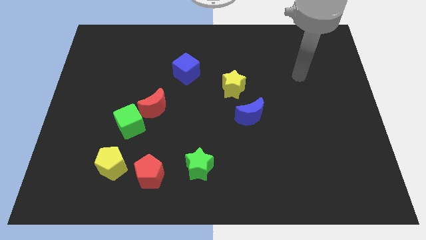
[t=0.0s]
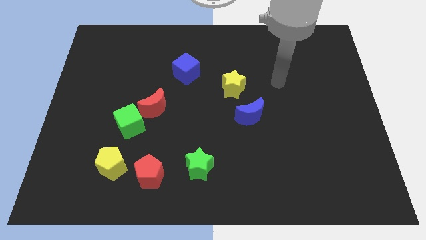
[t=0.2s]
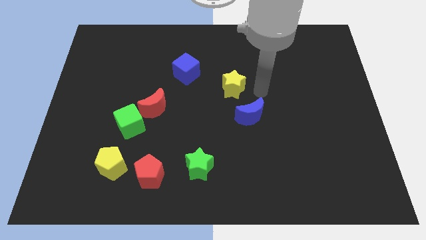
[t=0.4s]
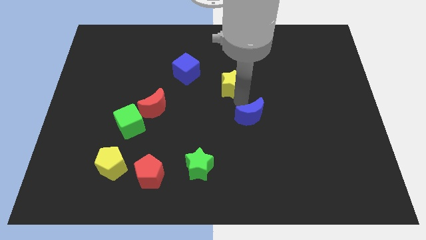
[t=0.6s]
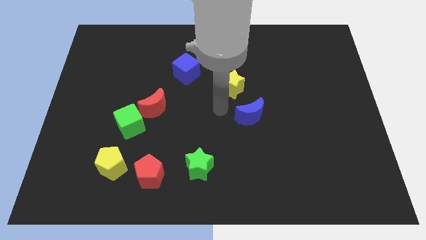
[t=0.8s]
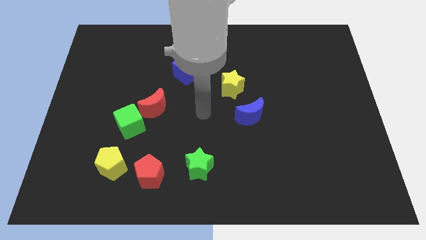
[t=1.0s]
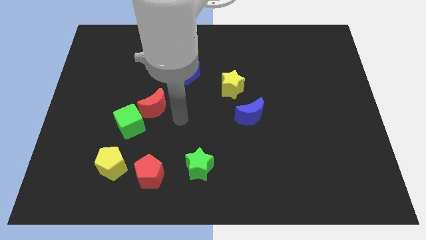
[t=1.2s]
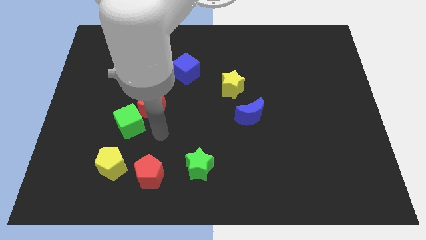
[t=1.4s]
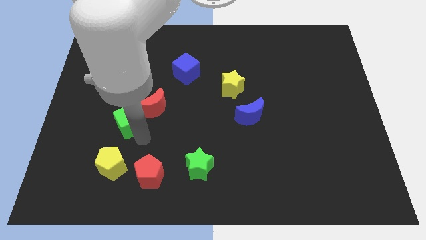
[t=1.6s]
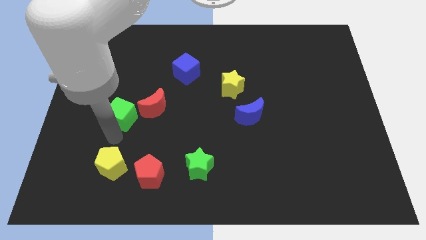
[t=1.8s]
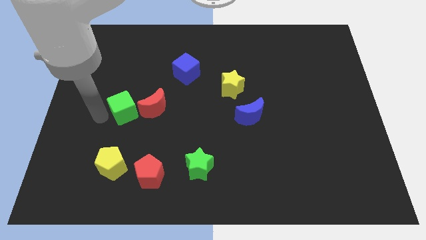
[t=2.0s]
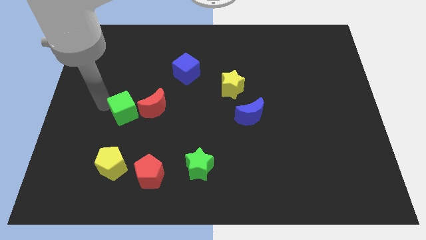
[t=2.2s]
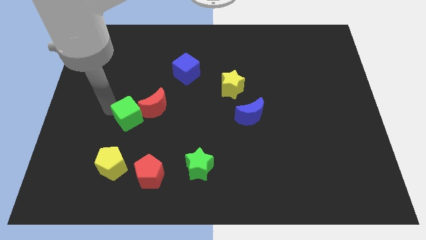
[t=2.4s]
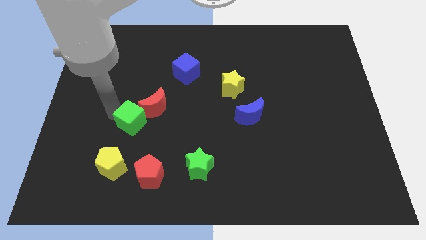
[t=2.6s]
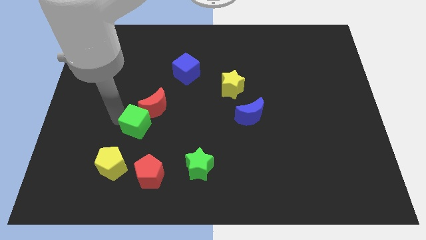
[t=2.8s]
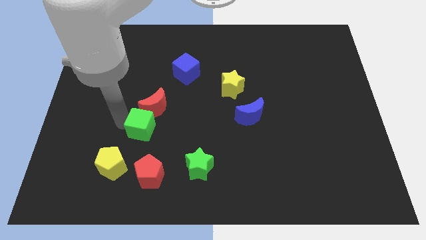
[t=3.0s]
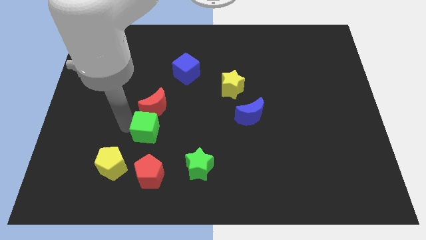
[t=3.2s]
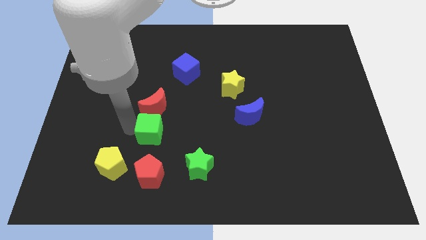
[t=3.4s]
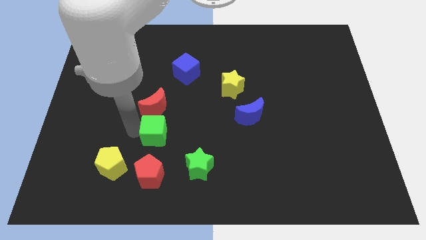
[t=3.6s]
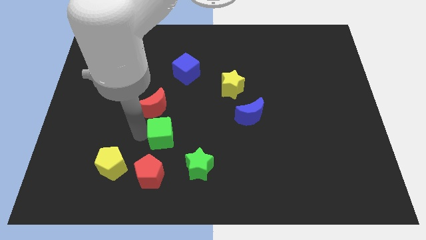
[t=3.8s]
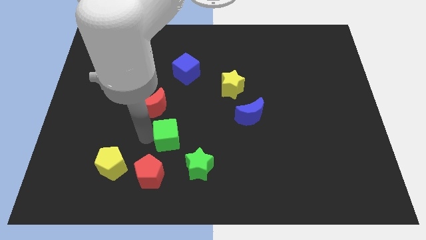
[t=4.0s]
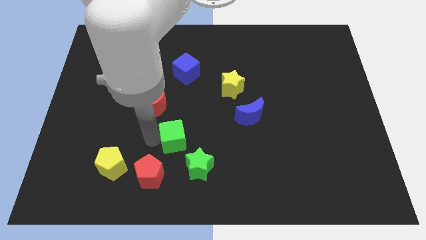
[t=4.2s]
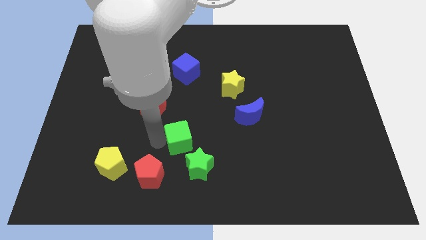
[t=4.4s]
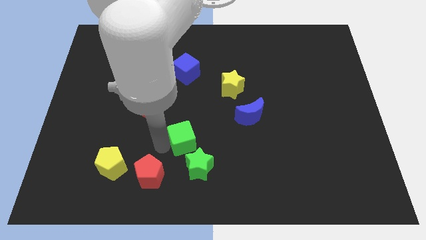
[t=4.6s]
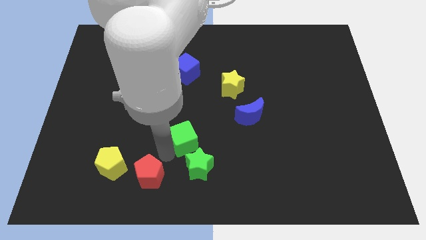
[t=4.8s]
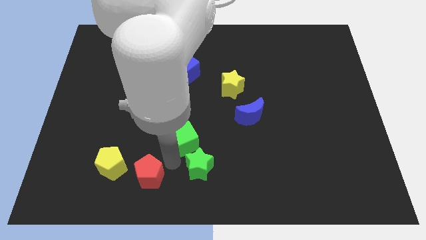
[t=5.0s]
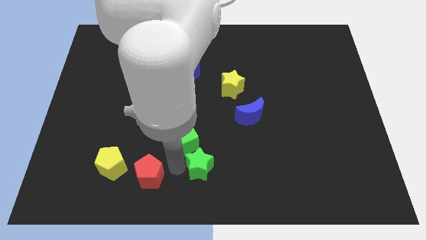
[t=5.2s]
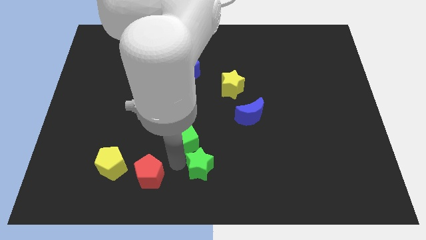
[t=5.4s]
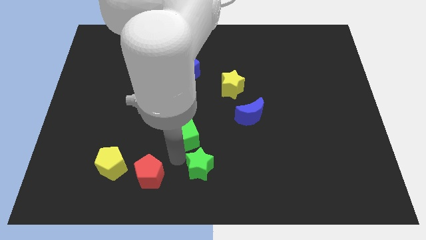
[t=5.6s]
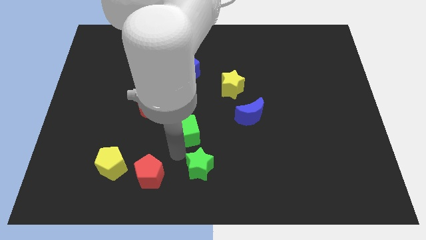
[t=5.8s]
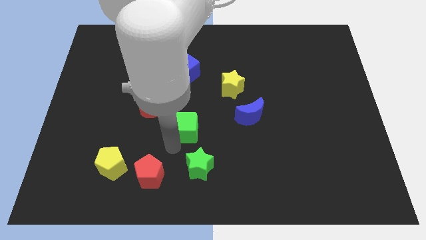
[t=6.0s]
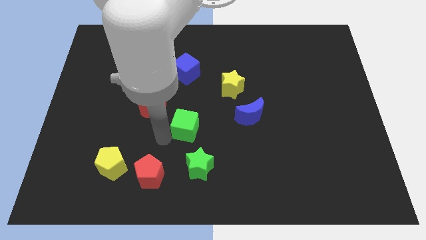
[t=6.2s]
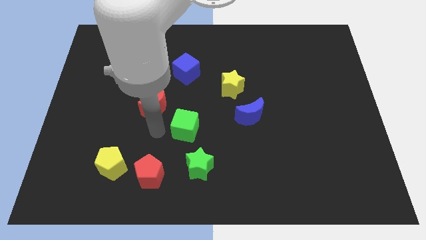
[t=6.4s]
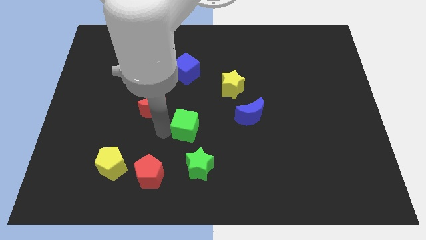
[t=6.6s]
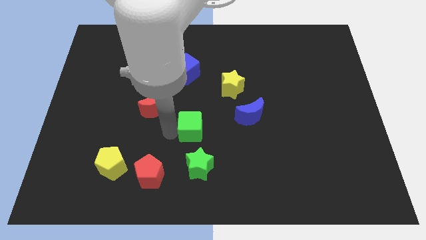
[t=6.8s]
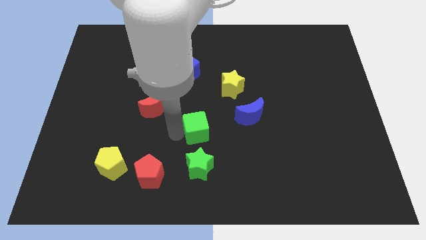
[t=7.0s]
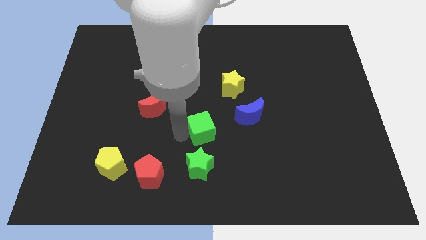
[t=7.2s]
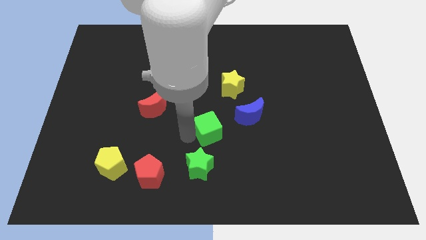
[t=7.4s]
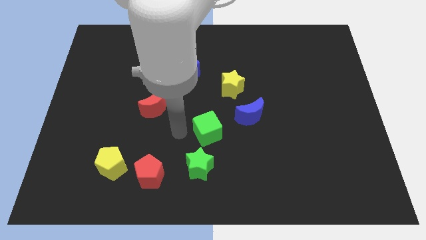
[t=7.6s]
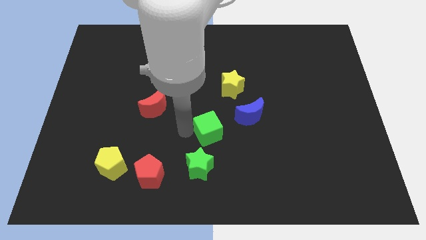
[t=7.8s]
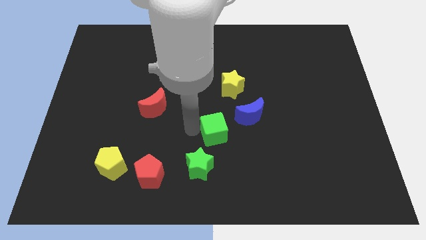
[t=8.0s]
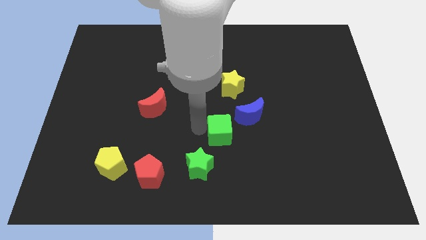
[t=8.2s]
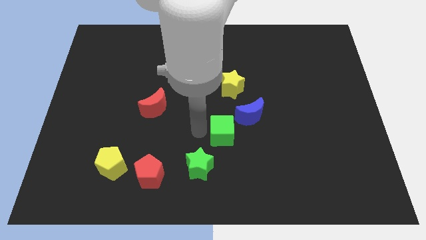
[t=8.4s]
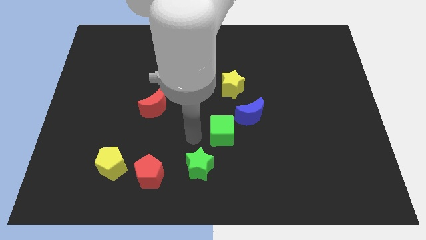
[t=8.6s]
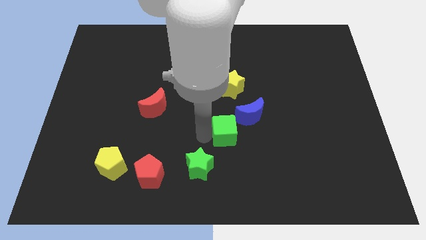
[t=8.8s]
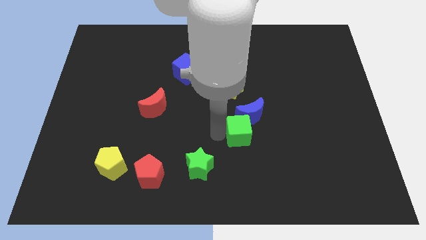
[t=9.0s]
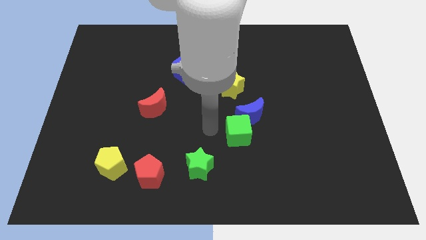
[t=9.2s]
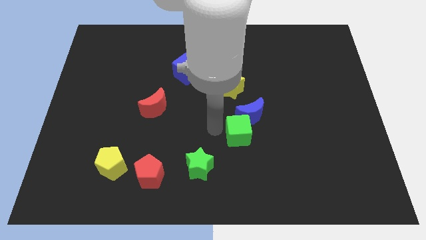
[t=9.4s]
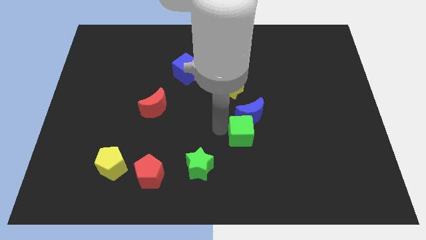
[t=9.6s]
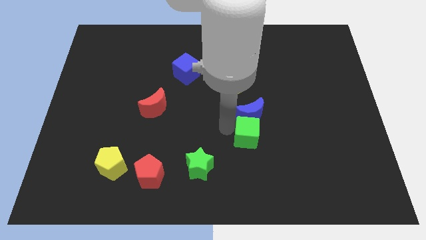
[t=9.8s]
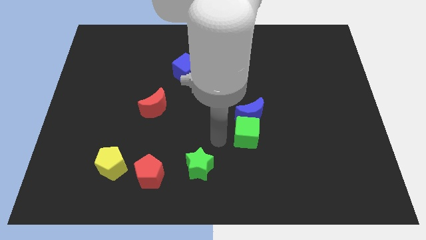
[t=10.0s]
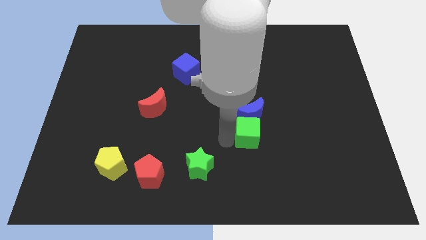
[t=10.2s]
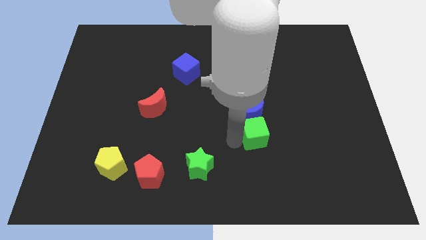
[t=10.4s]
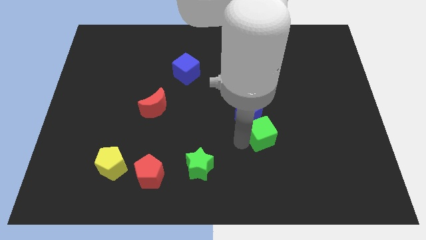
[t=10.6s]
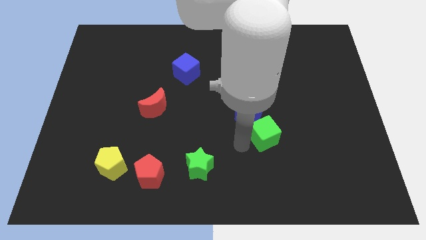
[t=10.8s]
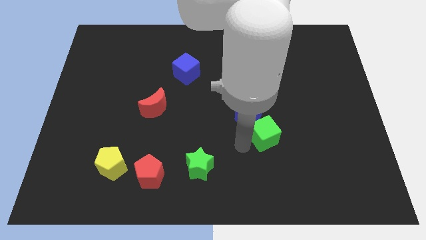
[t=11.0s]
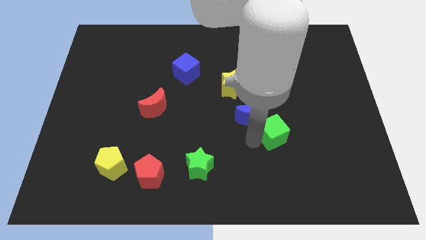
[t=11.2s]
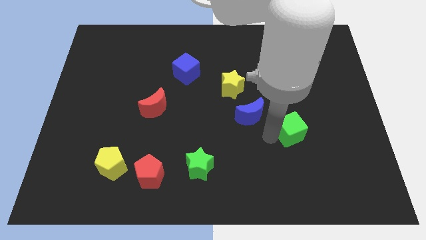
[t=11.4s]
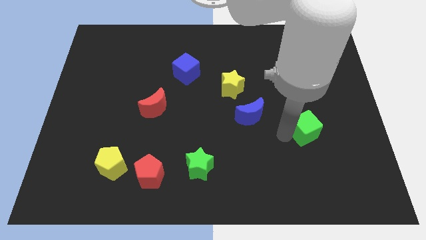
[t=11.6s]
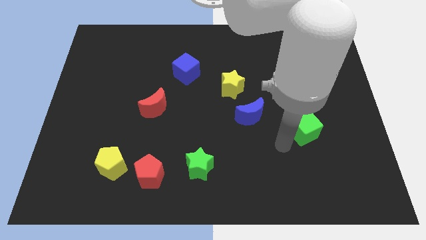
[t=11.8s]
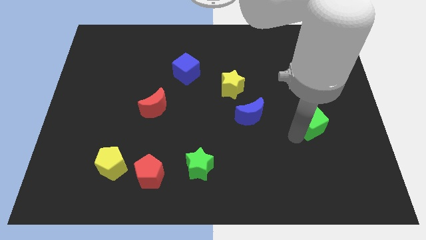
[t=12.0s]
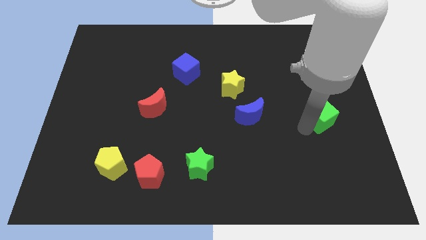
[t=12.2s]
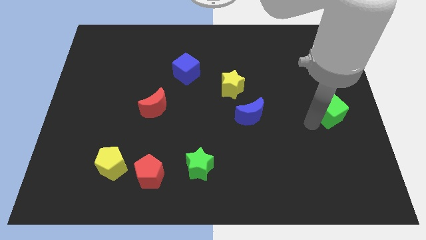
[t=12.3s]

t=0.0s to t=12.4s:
put the green cube to the right side of the board
